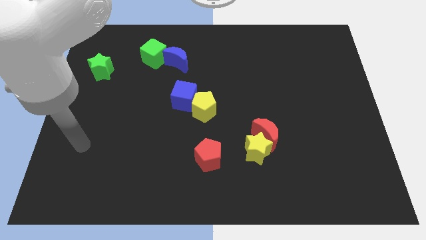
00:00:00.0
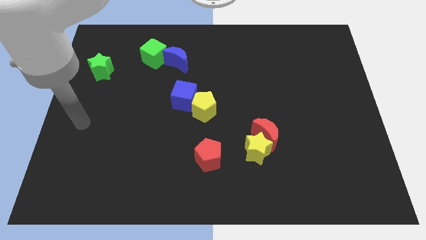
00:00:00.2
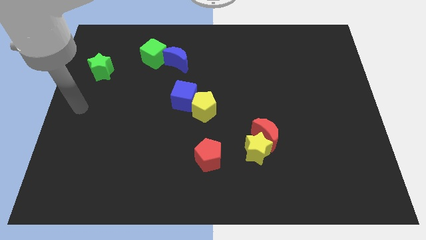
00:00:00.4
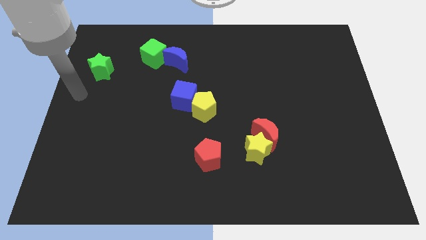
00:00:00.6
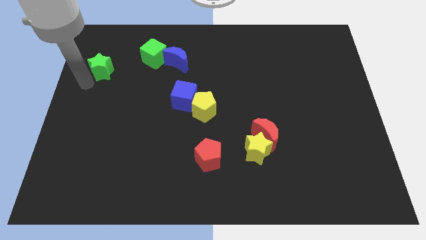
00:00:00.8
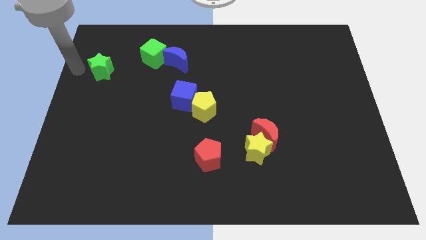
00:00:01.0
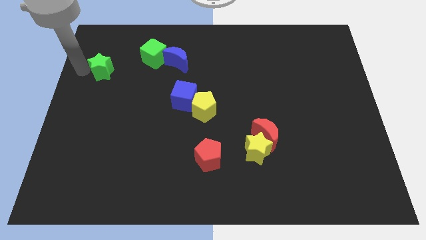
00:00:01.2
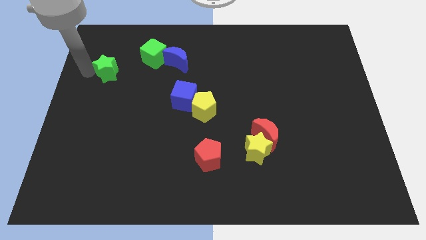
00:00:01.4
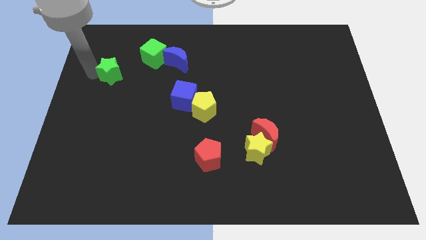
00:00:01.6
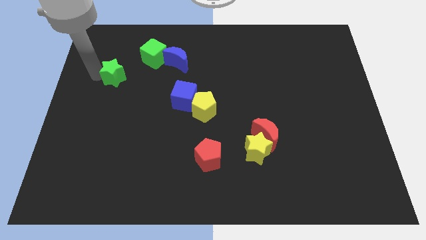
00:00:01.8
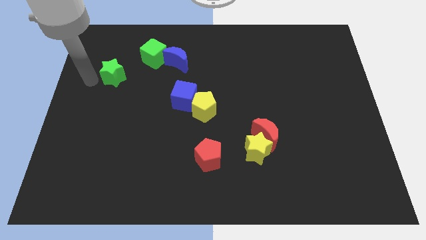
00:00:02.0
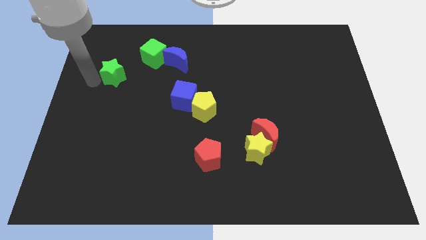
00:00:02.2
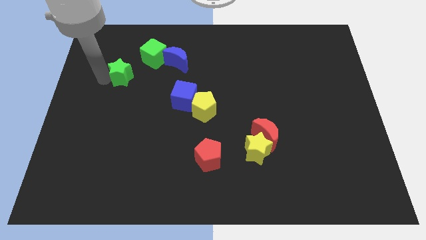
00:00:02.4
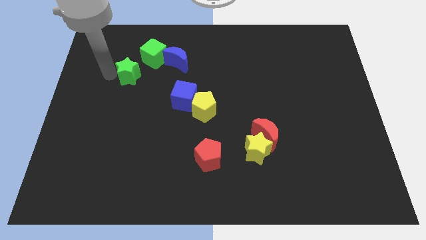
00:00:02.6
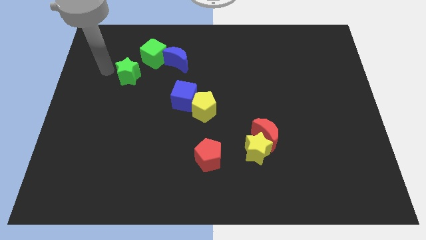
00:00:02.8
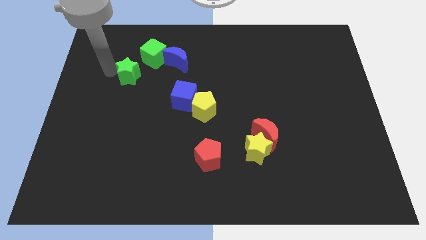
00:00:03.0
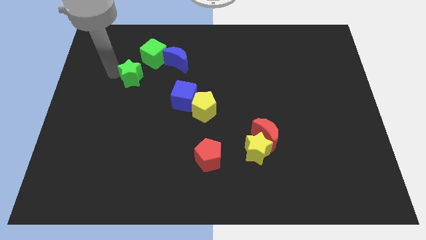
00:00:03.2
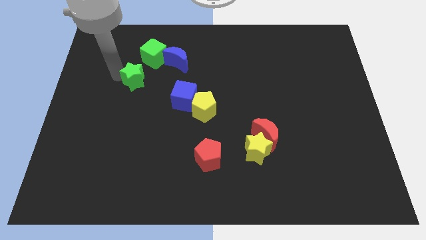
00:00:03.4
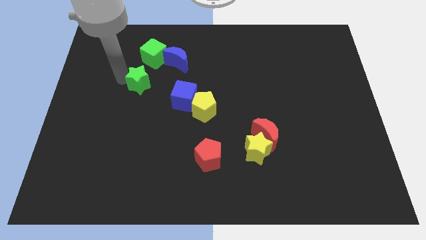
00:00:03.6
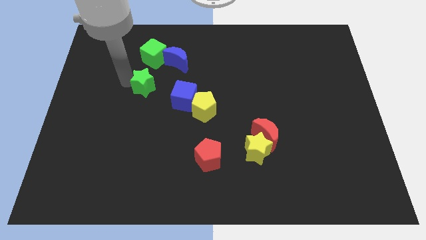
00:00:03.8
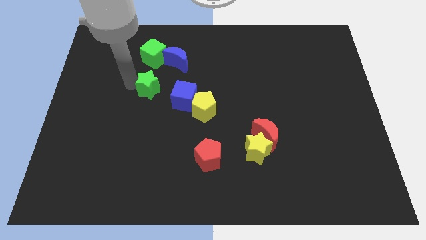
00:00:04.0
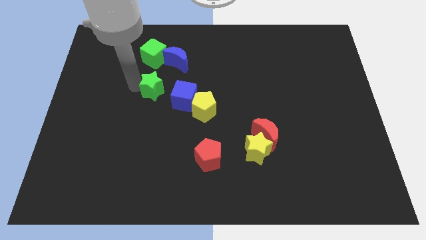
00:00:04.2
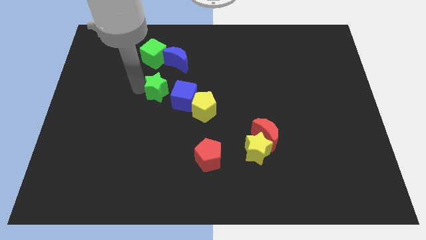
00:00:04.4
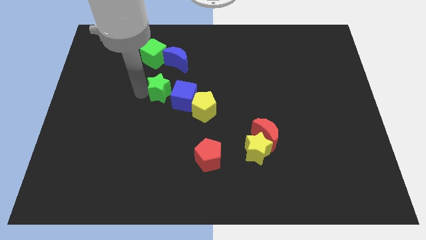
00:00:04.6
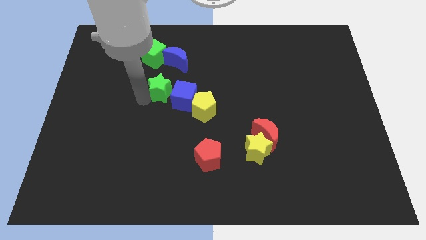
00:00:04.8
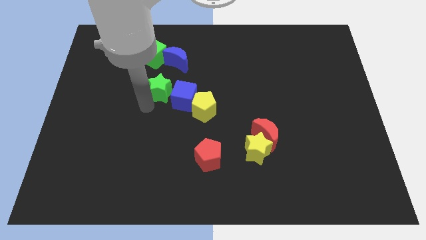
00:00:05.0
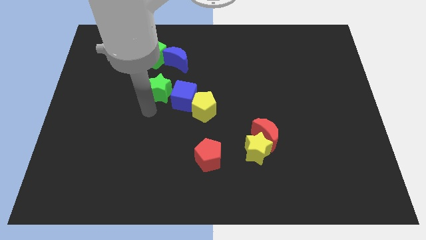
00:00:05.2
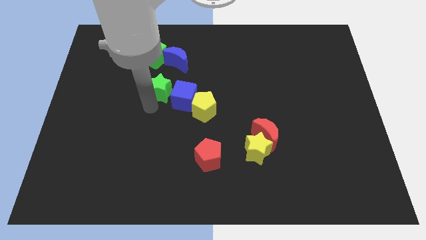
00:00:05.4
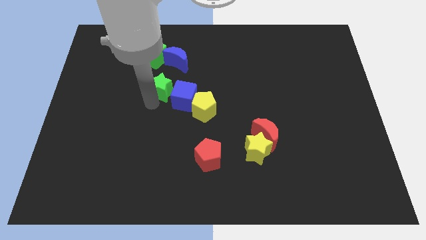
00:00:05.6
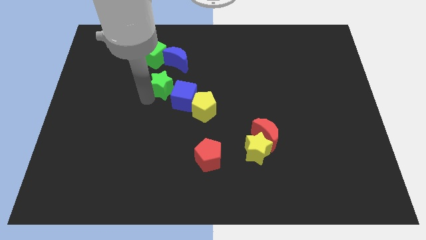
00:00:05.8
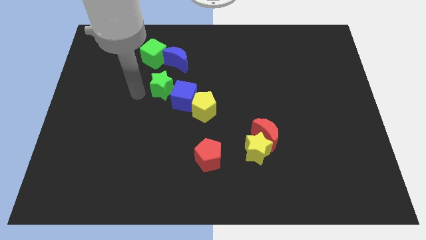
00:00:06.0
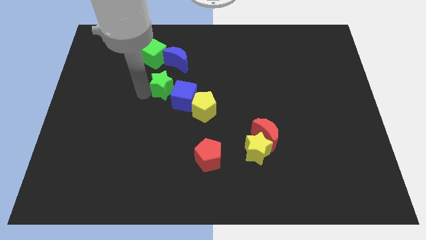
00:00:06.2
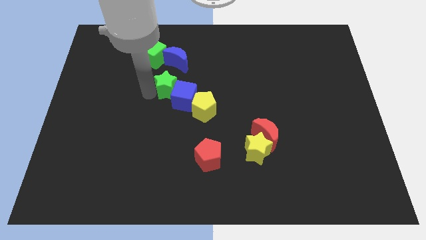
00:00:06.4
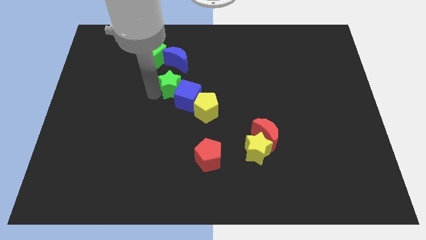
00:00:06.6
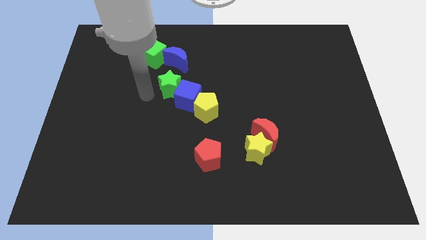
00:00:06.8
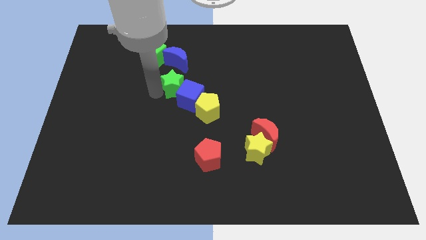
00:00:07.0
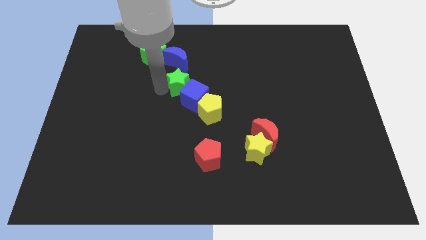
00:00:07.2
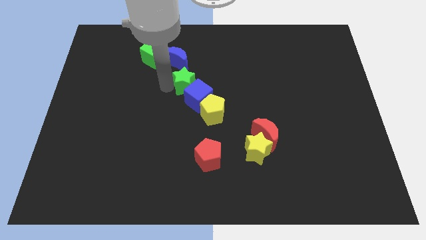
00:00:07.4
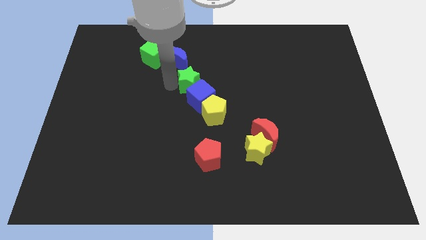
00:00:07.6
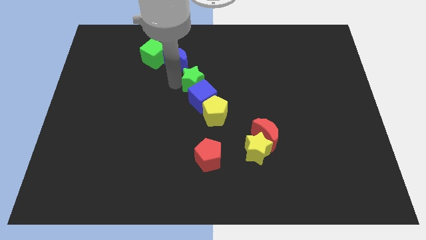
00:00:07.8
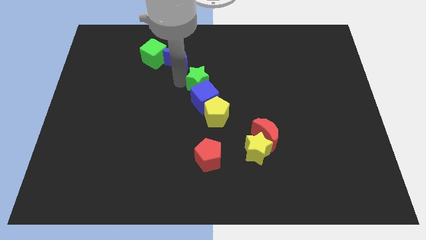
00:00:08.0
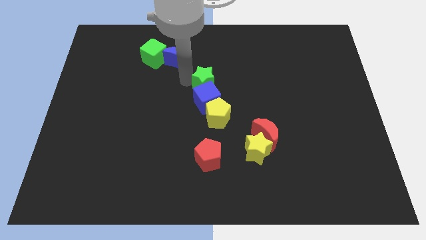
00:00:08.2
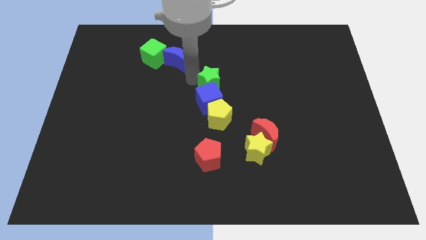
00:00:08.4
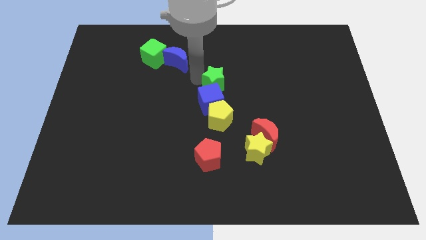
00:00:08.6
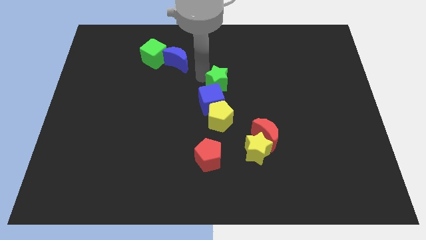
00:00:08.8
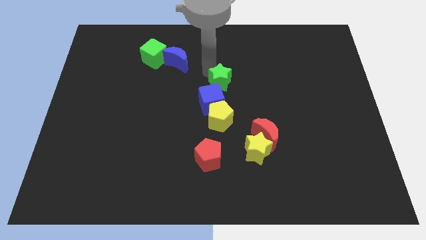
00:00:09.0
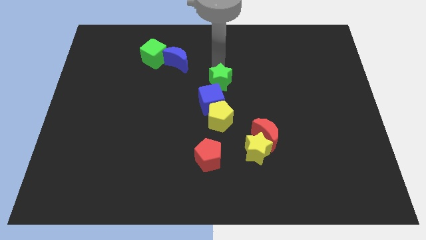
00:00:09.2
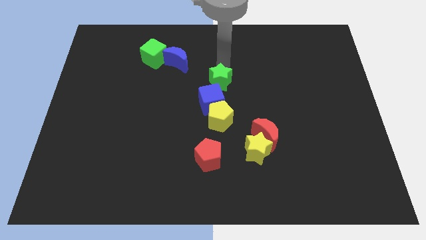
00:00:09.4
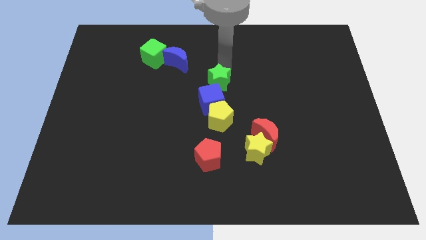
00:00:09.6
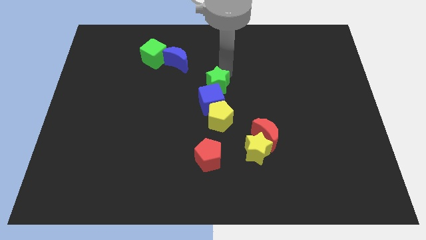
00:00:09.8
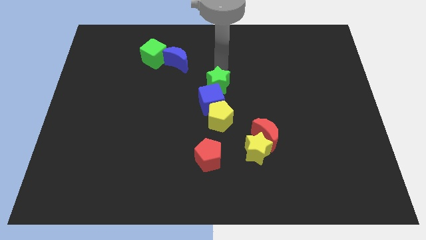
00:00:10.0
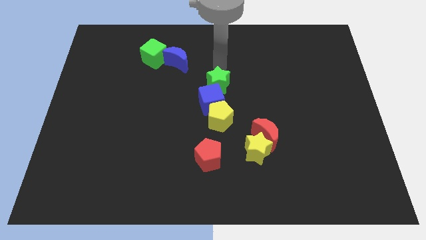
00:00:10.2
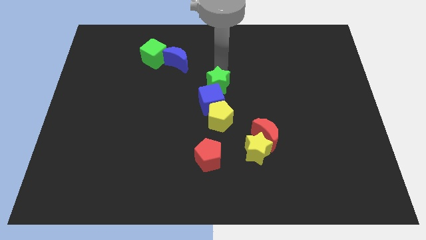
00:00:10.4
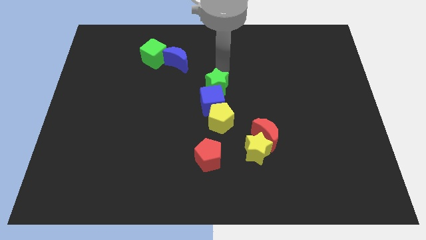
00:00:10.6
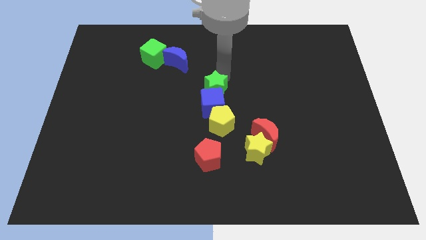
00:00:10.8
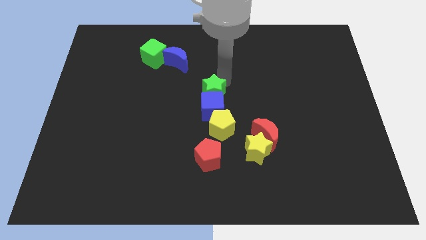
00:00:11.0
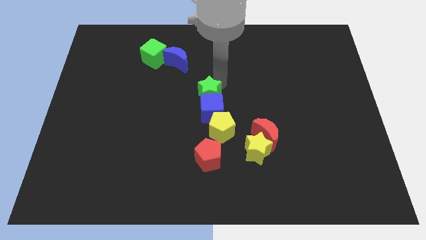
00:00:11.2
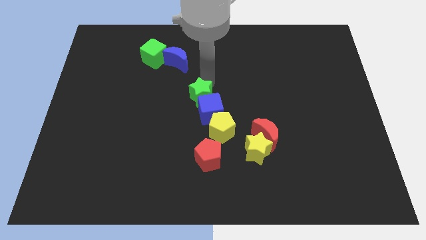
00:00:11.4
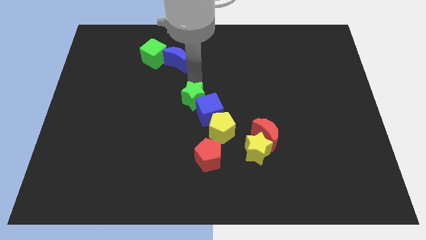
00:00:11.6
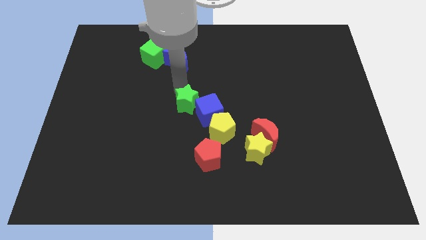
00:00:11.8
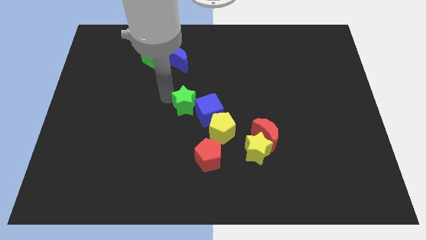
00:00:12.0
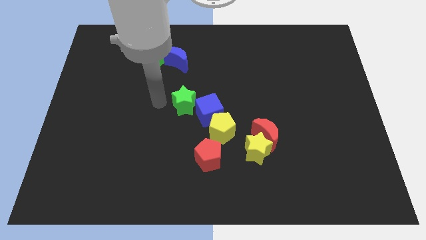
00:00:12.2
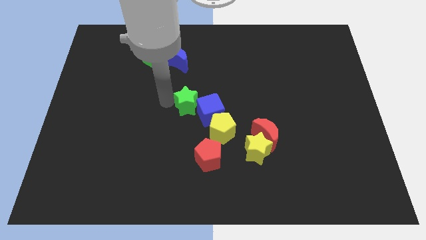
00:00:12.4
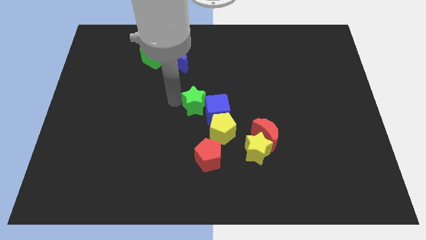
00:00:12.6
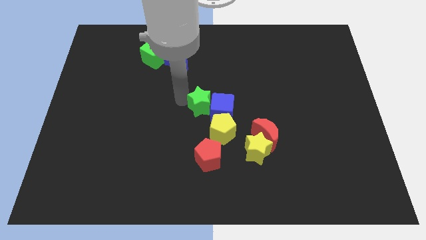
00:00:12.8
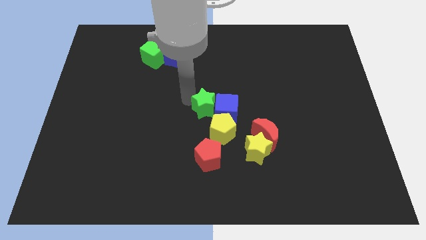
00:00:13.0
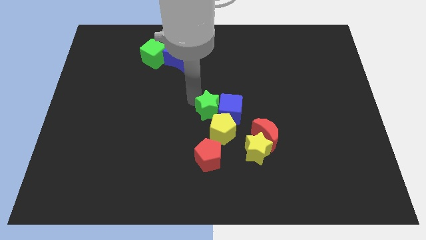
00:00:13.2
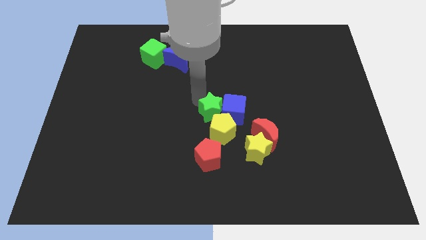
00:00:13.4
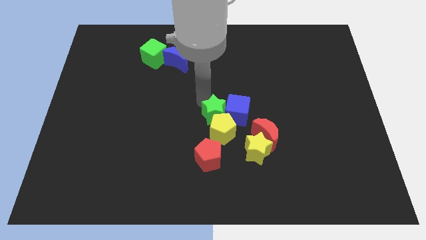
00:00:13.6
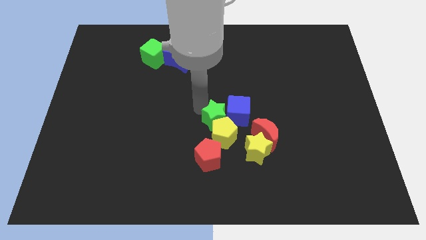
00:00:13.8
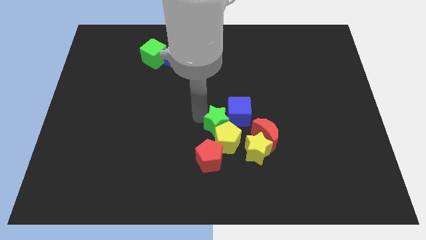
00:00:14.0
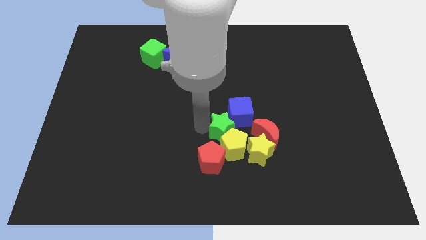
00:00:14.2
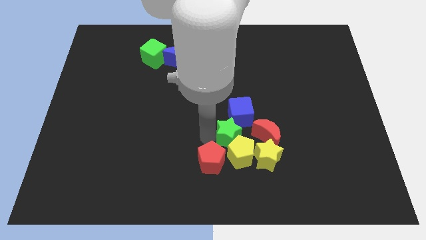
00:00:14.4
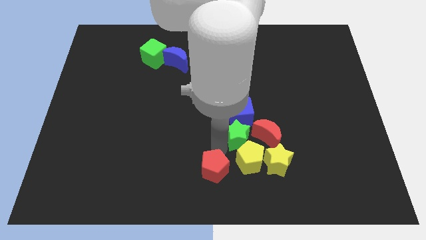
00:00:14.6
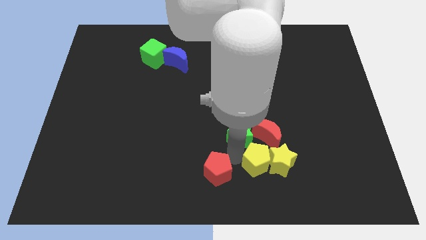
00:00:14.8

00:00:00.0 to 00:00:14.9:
put the green star close to the red moon
